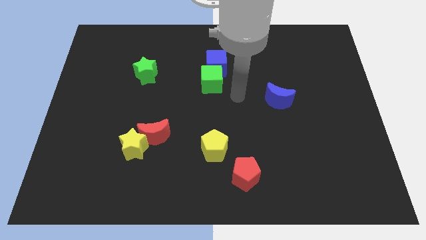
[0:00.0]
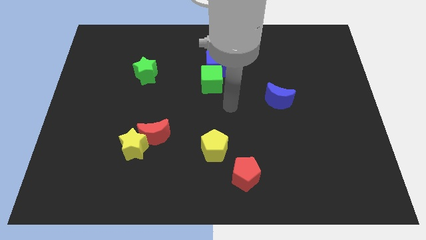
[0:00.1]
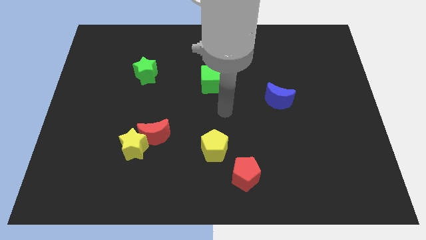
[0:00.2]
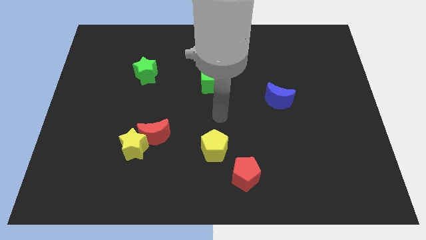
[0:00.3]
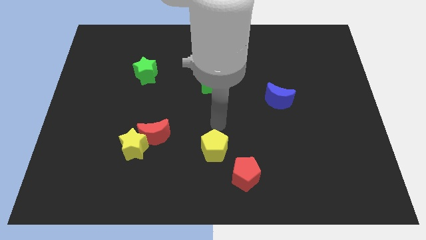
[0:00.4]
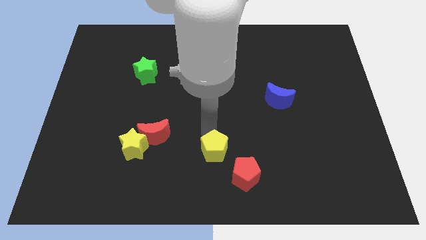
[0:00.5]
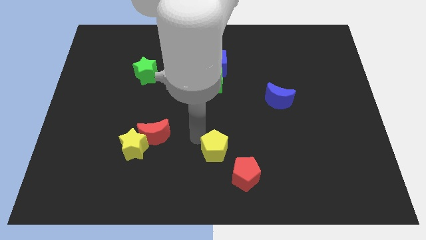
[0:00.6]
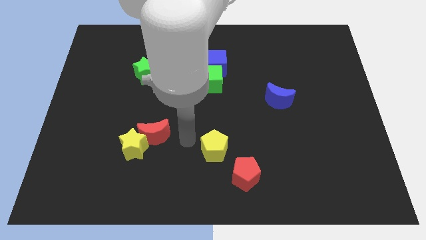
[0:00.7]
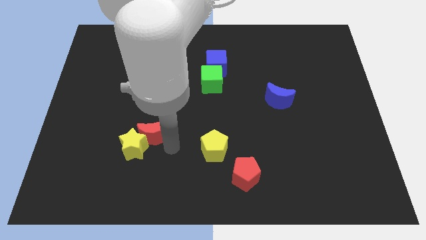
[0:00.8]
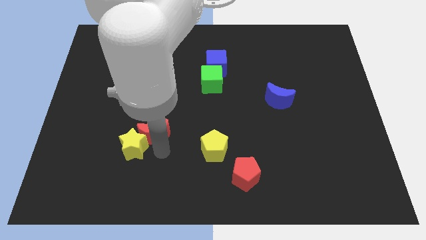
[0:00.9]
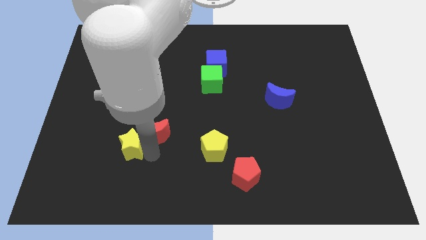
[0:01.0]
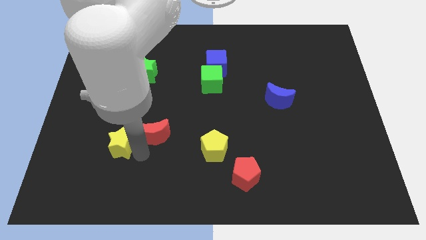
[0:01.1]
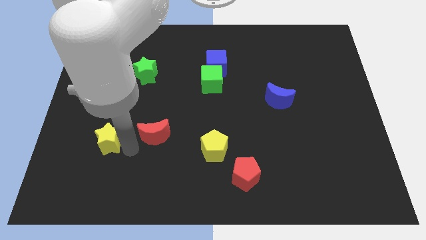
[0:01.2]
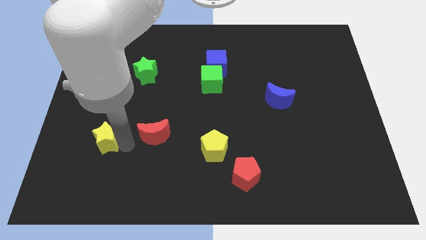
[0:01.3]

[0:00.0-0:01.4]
pull the red moon apart from the yellow star

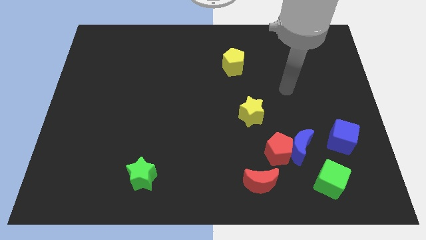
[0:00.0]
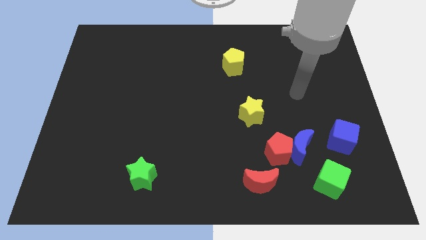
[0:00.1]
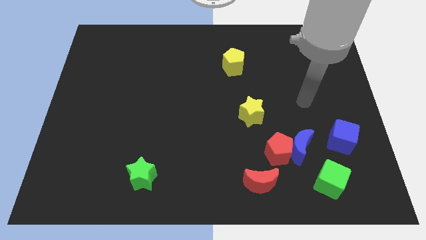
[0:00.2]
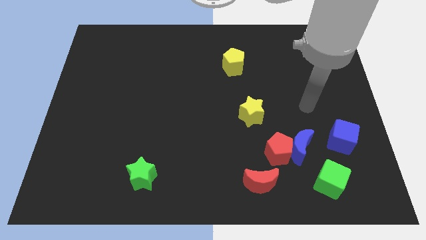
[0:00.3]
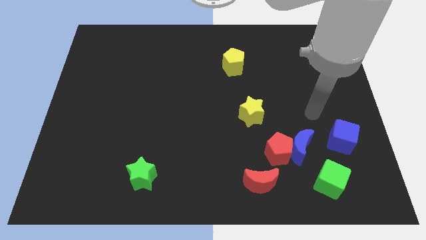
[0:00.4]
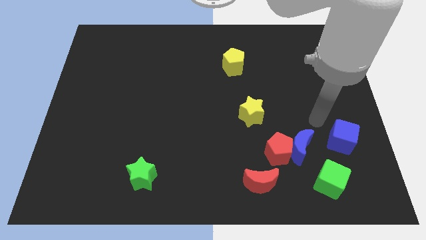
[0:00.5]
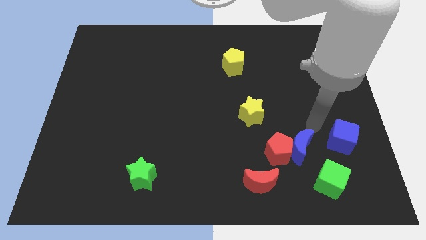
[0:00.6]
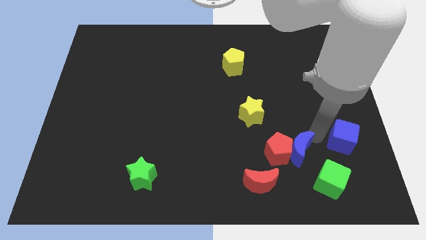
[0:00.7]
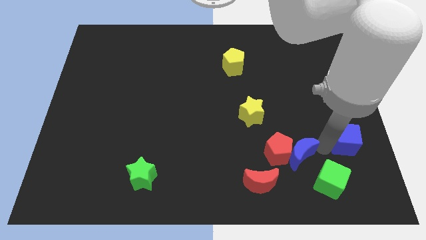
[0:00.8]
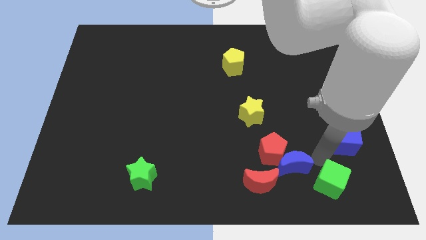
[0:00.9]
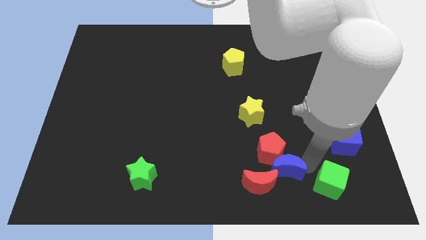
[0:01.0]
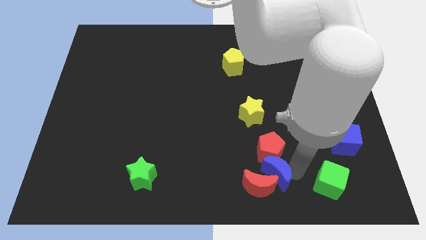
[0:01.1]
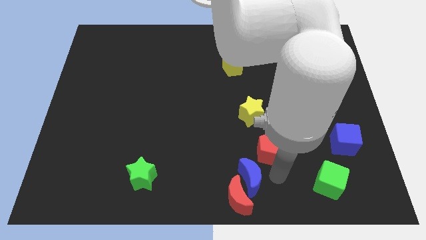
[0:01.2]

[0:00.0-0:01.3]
move the red pentagon away from the blue moon and red moon

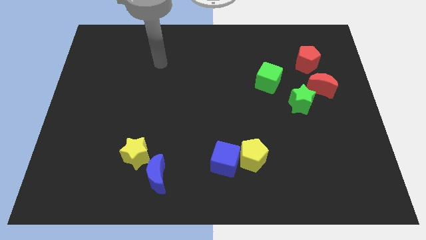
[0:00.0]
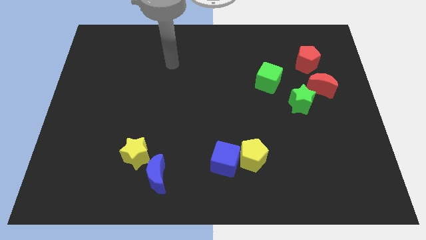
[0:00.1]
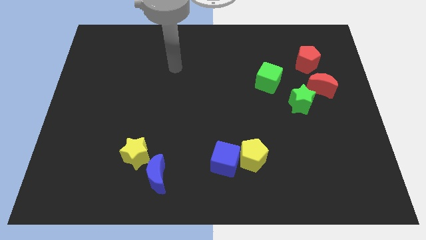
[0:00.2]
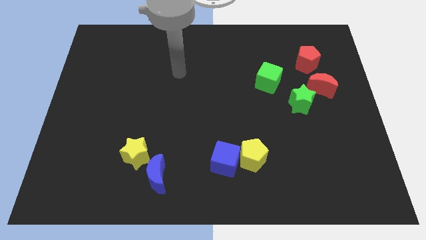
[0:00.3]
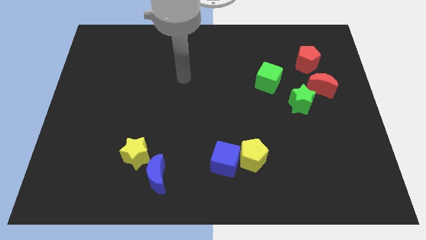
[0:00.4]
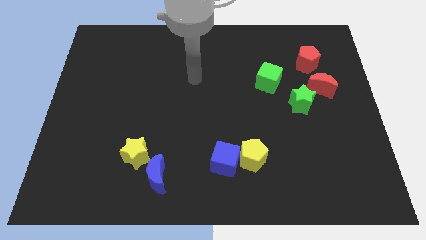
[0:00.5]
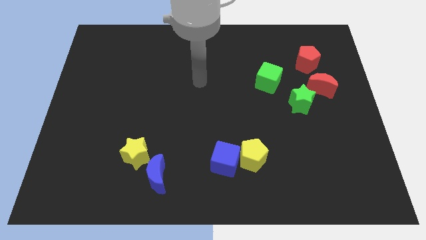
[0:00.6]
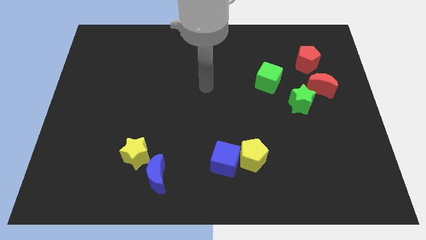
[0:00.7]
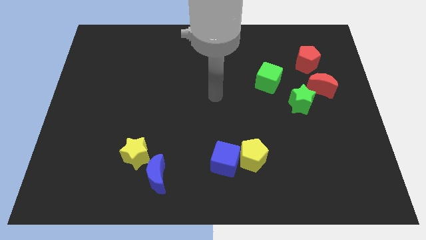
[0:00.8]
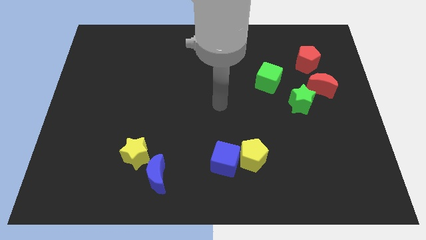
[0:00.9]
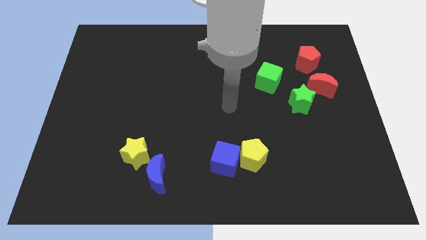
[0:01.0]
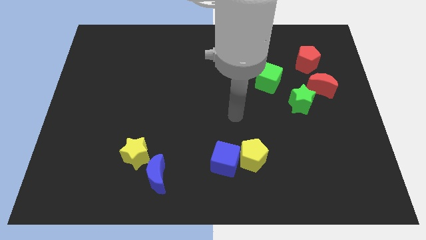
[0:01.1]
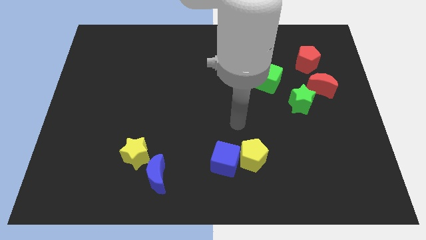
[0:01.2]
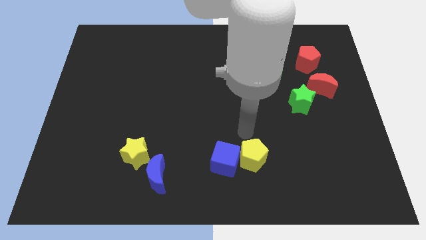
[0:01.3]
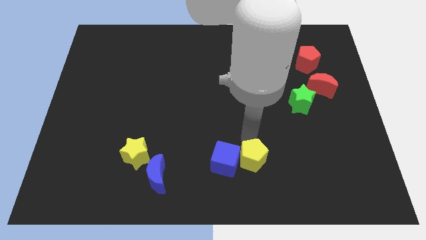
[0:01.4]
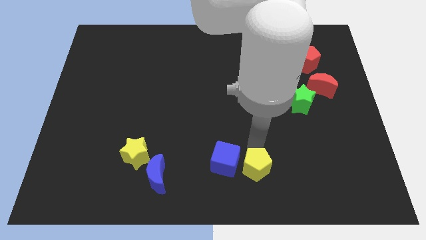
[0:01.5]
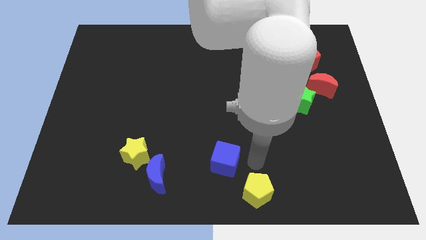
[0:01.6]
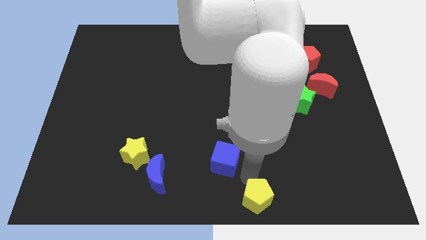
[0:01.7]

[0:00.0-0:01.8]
pull the blue cube apart from the yellow pentagon

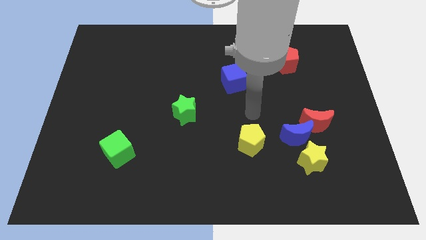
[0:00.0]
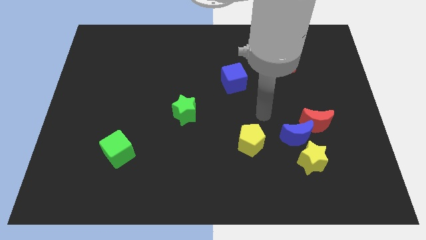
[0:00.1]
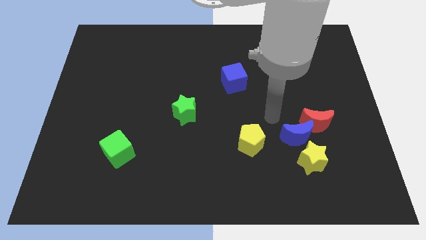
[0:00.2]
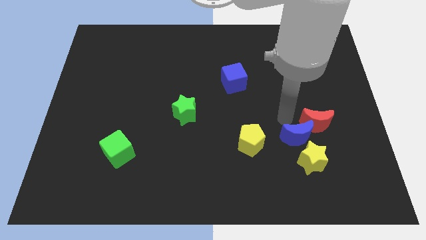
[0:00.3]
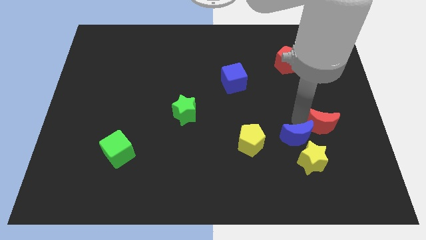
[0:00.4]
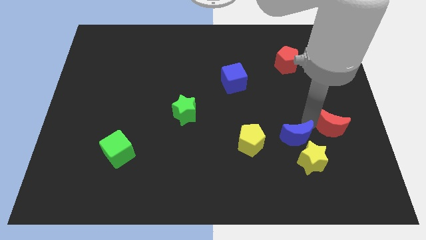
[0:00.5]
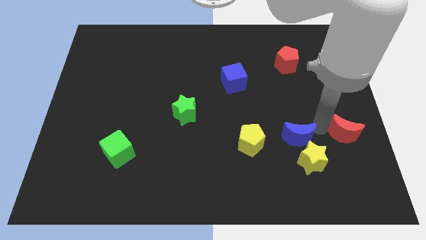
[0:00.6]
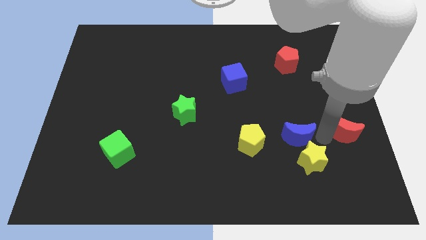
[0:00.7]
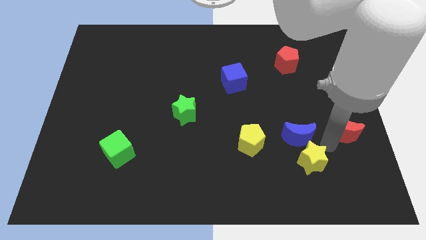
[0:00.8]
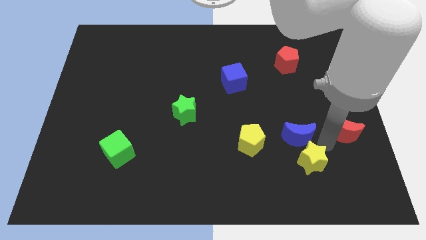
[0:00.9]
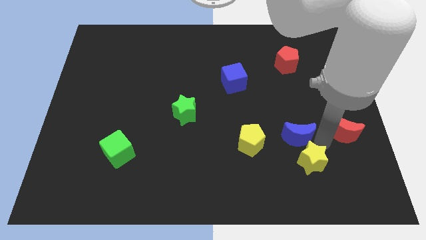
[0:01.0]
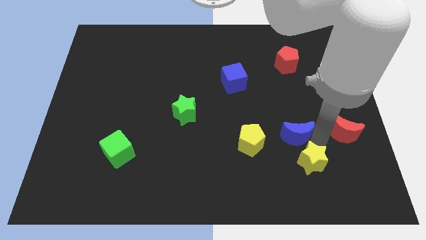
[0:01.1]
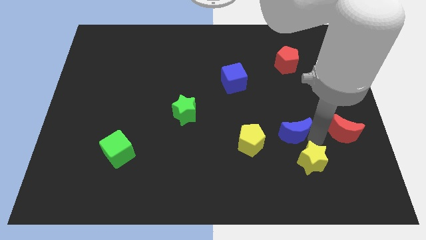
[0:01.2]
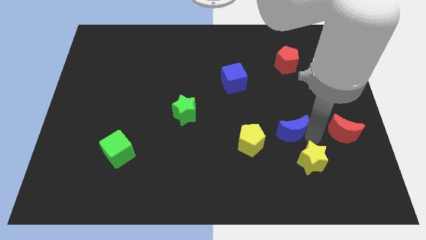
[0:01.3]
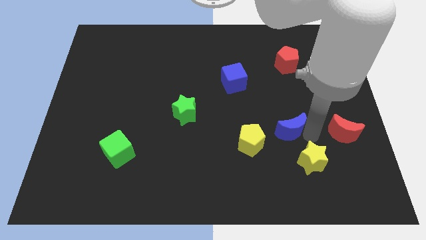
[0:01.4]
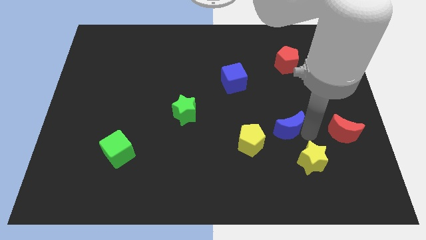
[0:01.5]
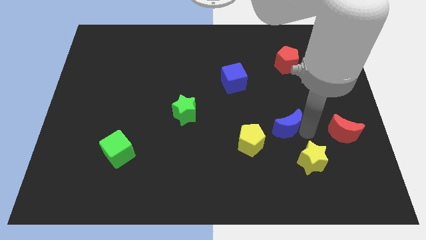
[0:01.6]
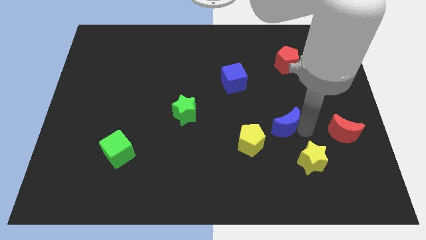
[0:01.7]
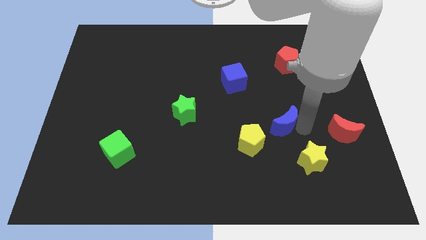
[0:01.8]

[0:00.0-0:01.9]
move the blue moon away from the red moon and yellow star

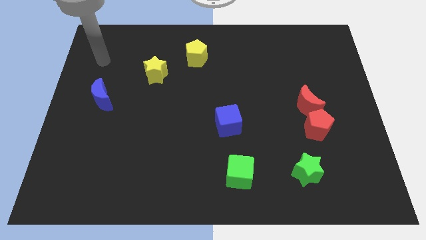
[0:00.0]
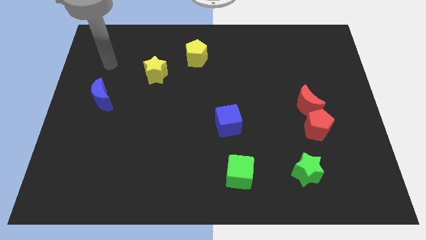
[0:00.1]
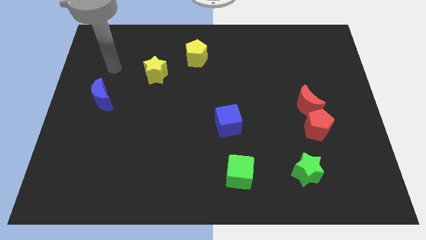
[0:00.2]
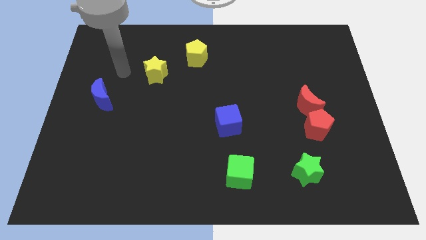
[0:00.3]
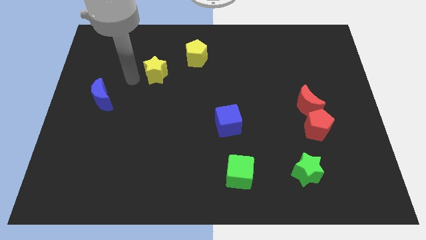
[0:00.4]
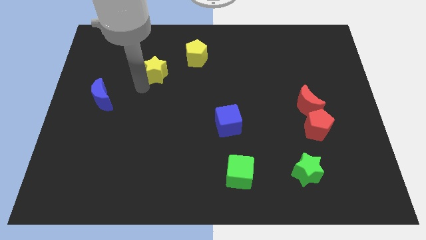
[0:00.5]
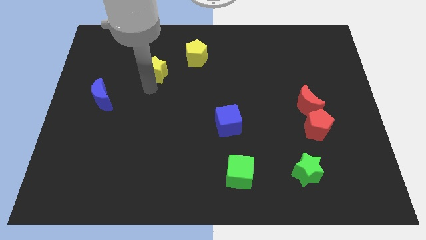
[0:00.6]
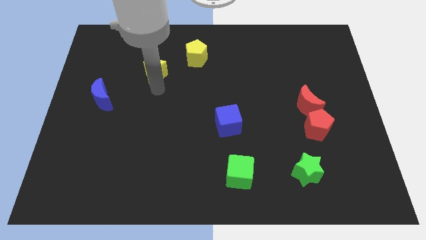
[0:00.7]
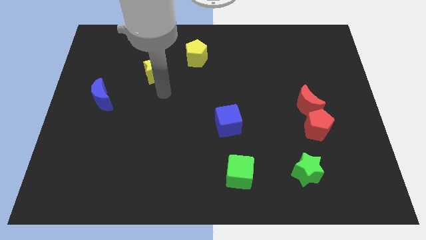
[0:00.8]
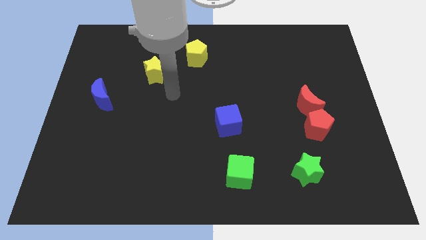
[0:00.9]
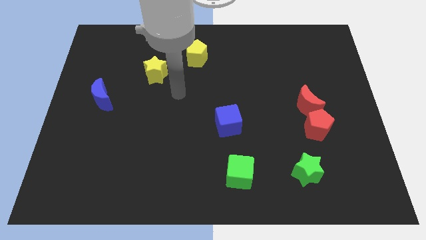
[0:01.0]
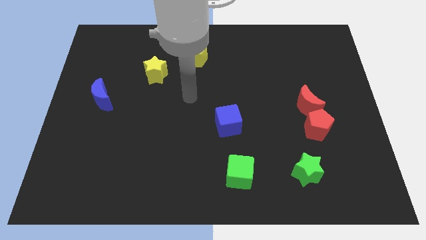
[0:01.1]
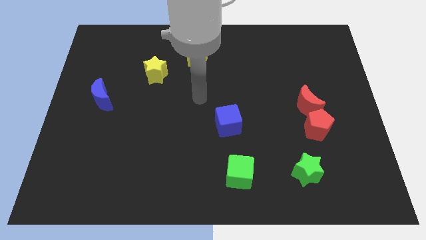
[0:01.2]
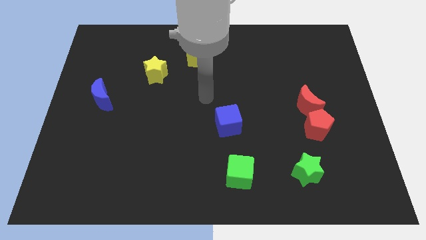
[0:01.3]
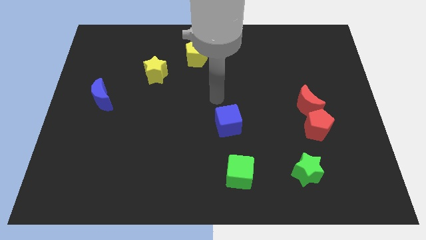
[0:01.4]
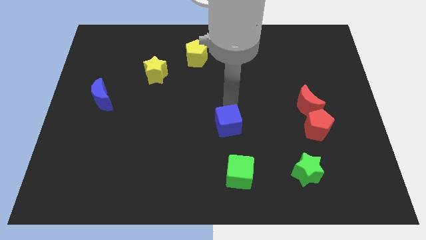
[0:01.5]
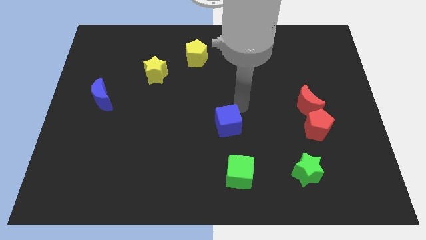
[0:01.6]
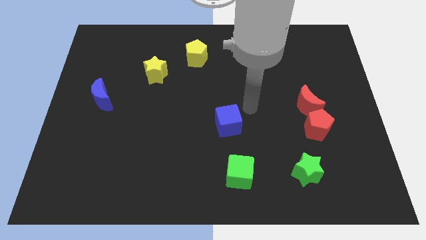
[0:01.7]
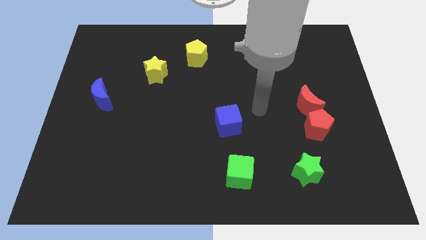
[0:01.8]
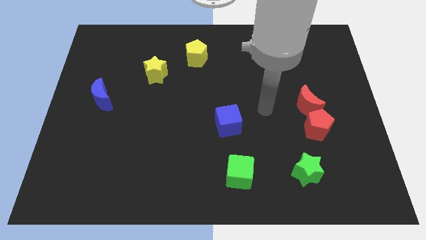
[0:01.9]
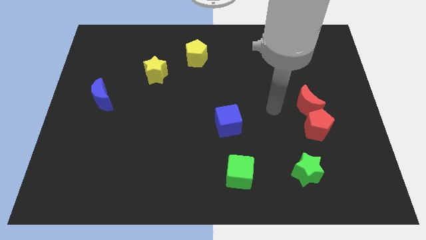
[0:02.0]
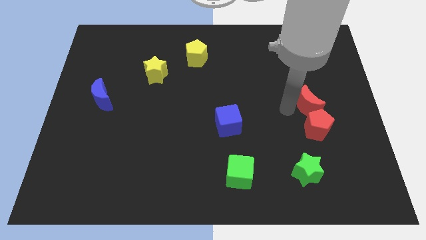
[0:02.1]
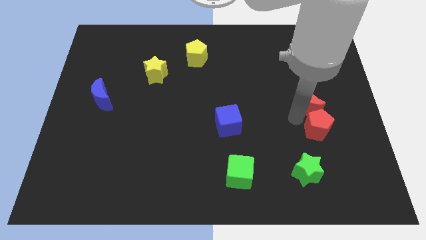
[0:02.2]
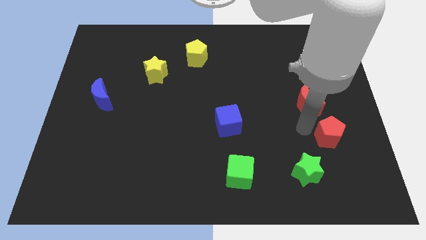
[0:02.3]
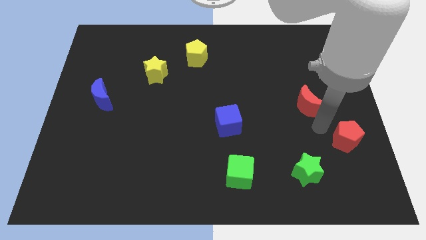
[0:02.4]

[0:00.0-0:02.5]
move the red moon away from the red pentagon

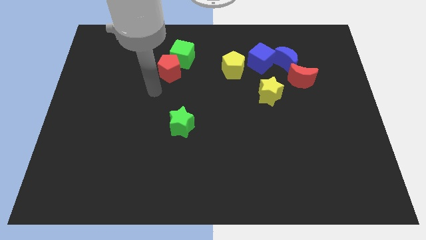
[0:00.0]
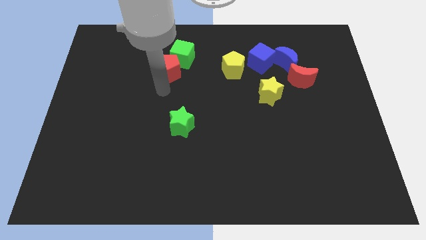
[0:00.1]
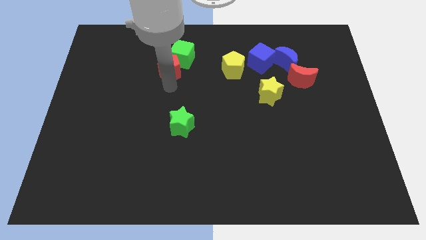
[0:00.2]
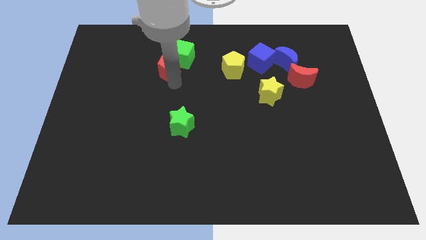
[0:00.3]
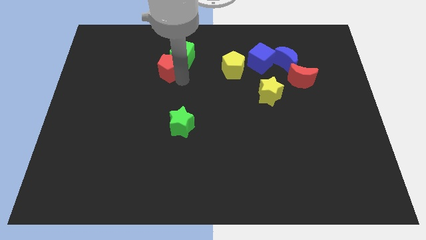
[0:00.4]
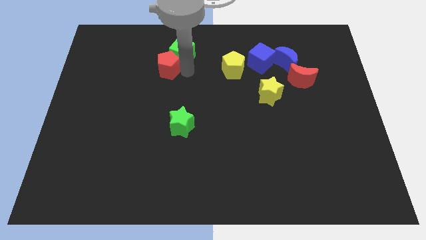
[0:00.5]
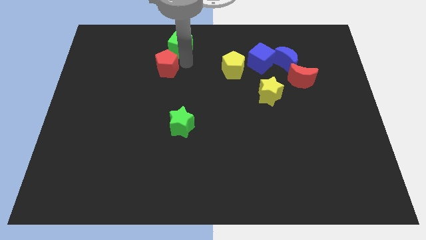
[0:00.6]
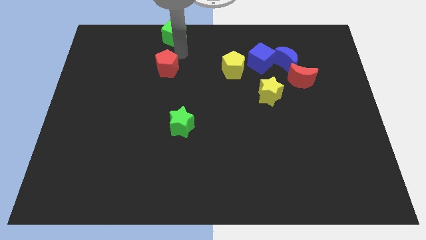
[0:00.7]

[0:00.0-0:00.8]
pull the red pentagon apart from the green cube
